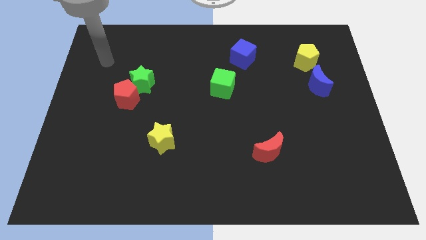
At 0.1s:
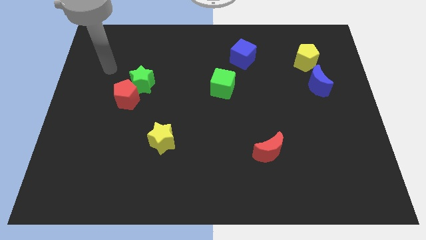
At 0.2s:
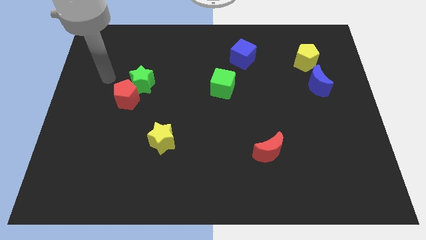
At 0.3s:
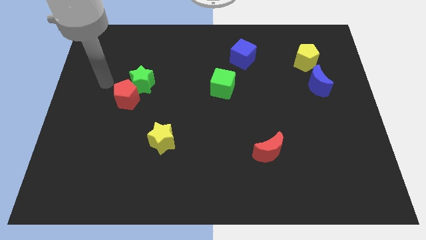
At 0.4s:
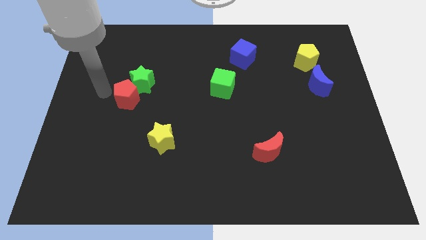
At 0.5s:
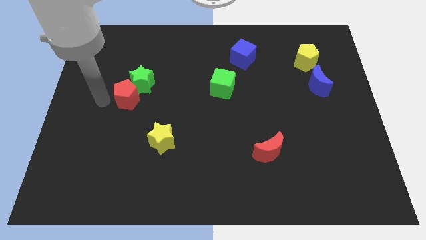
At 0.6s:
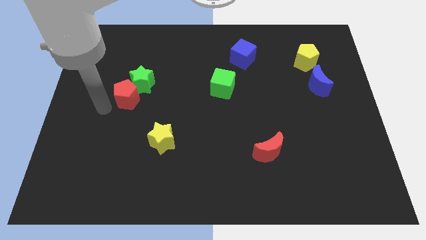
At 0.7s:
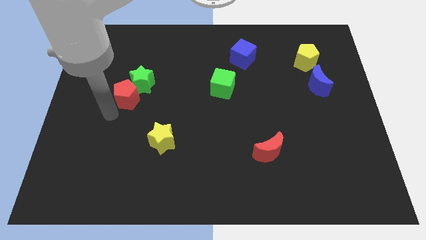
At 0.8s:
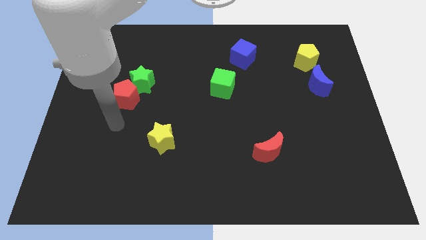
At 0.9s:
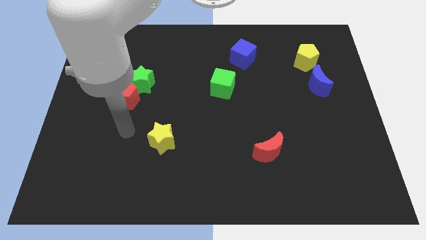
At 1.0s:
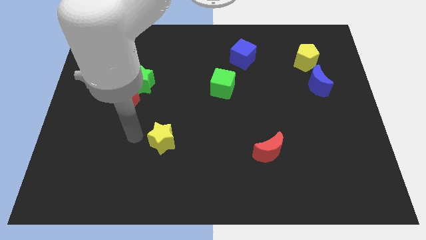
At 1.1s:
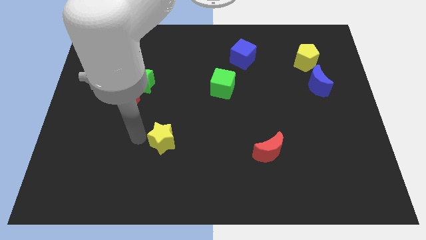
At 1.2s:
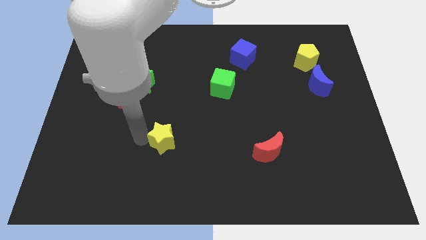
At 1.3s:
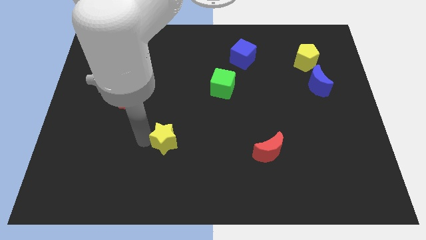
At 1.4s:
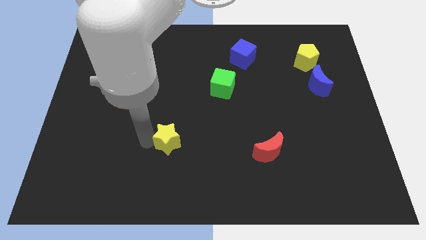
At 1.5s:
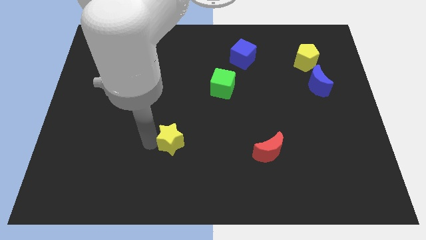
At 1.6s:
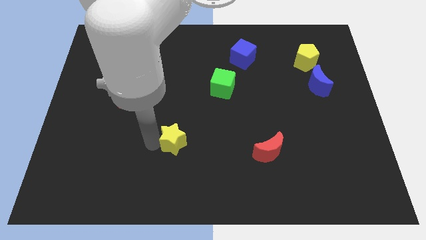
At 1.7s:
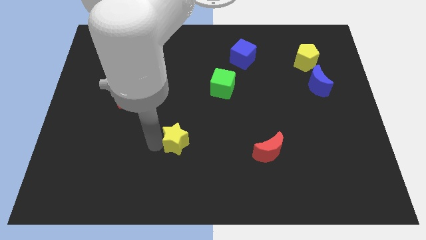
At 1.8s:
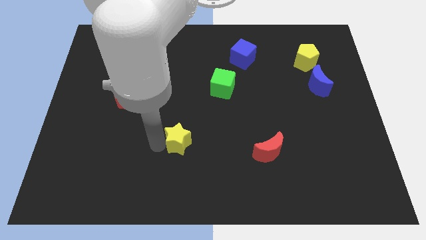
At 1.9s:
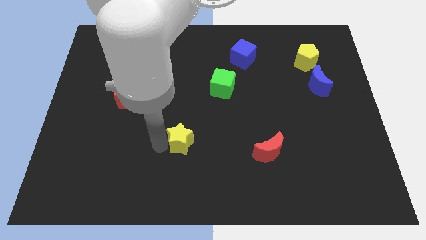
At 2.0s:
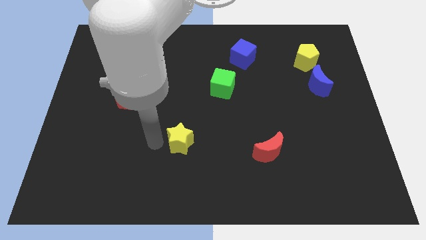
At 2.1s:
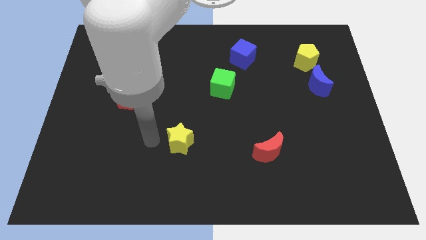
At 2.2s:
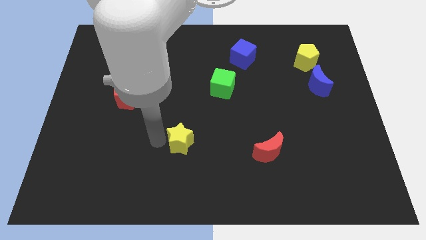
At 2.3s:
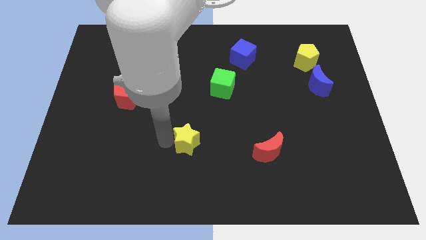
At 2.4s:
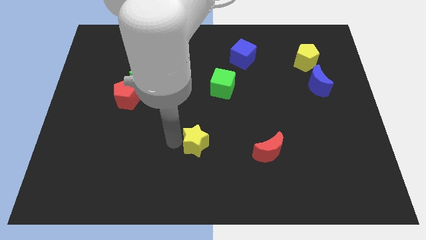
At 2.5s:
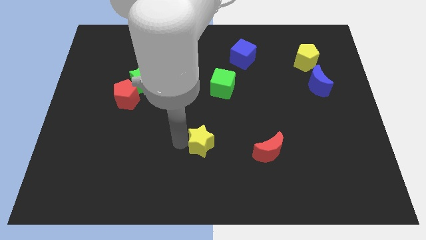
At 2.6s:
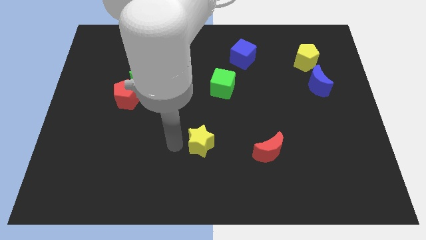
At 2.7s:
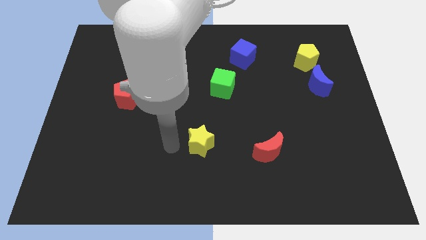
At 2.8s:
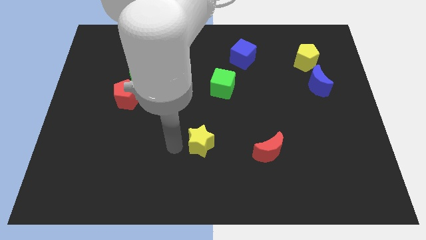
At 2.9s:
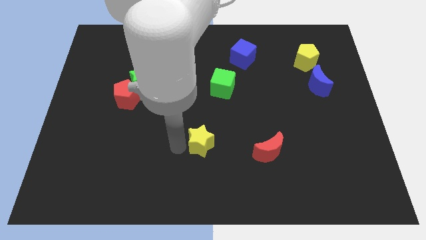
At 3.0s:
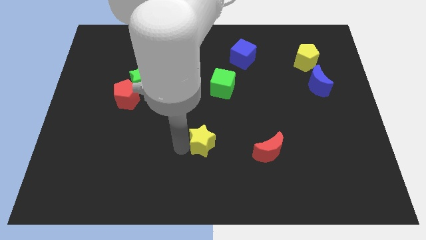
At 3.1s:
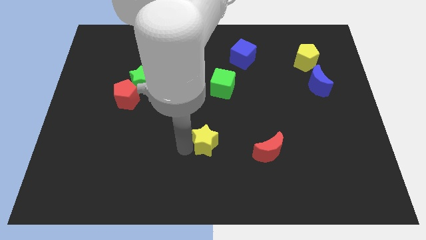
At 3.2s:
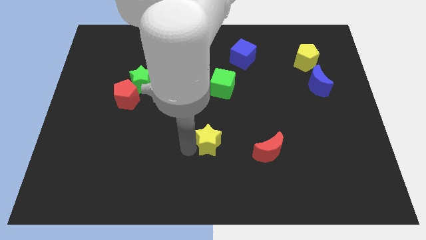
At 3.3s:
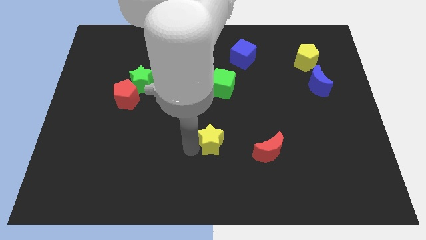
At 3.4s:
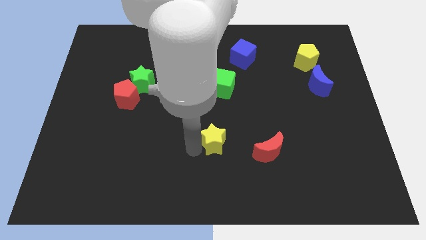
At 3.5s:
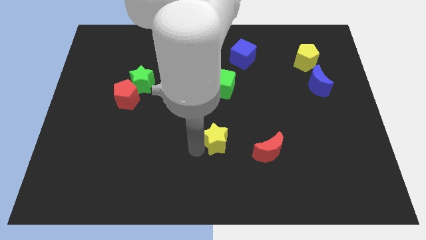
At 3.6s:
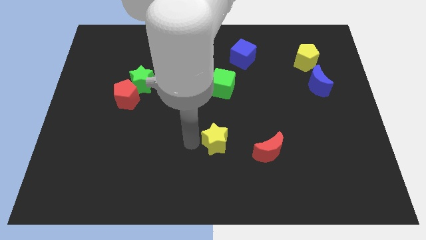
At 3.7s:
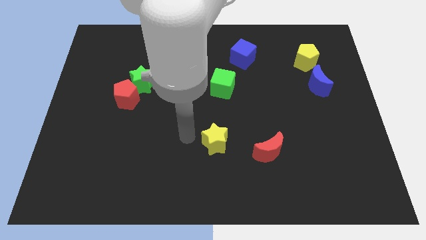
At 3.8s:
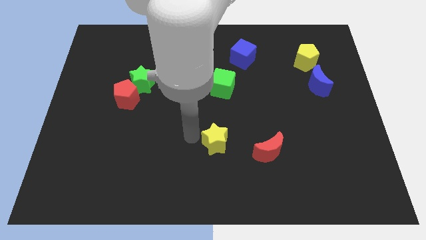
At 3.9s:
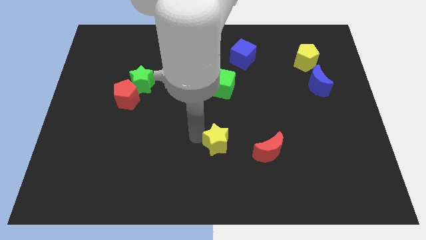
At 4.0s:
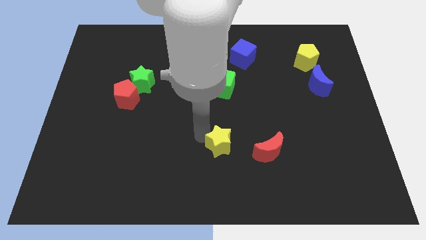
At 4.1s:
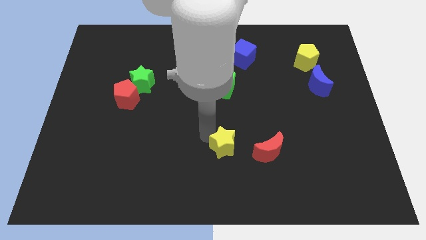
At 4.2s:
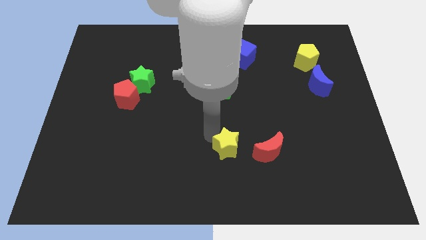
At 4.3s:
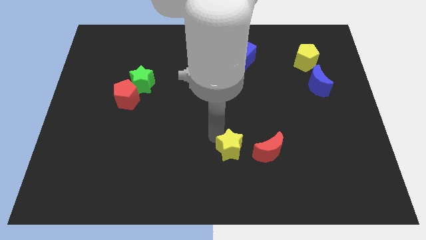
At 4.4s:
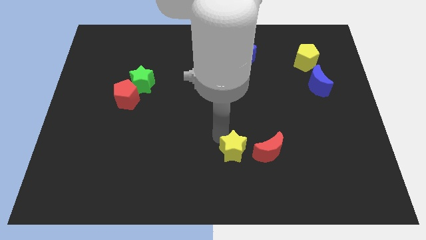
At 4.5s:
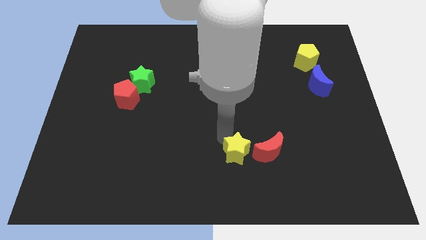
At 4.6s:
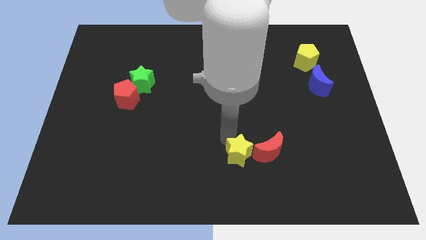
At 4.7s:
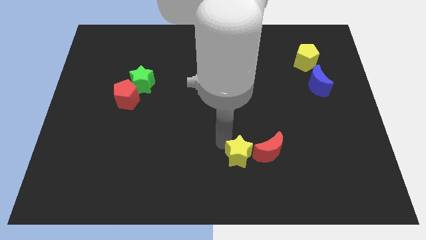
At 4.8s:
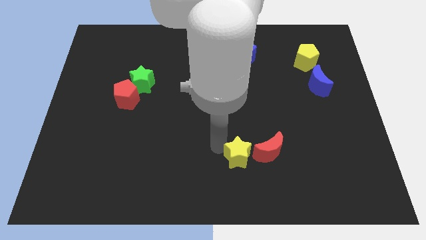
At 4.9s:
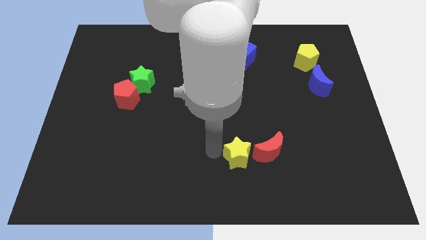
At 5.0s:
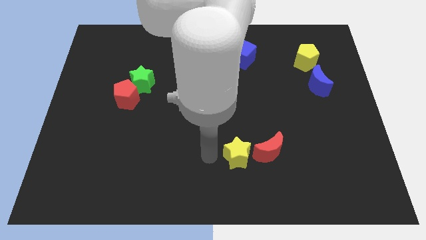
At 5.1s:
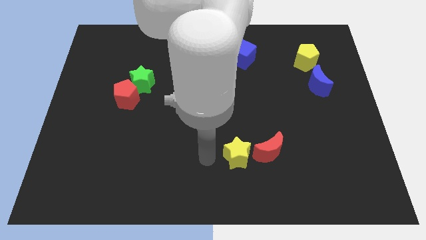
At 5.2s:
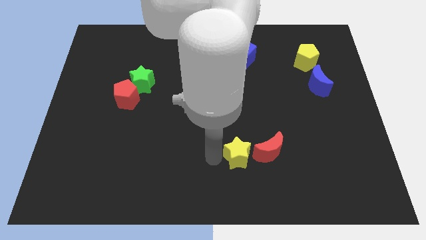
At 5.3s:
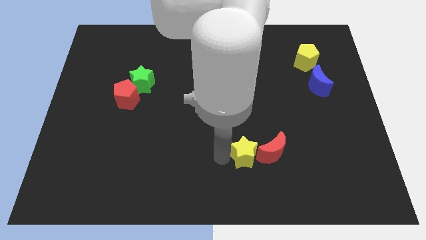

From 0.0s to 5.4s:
put the yellow star close to the red moon

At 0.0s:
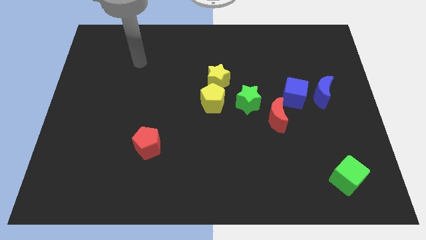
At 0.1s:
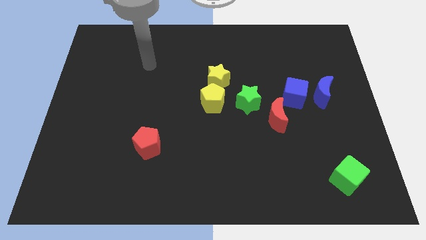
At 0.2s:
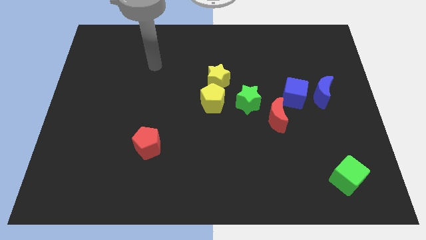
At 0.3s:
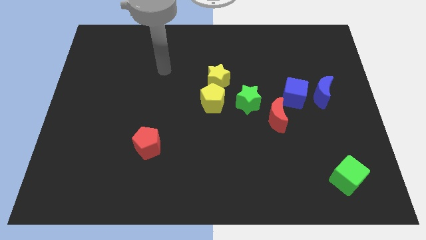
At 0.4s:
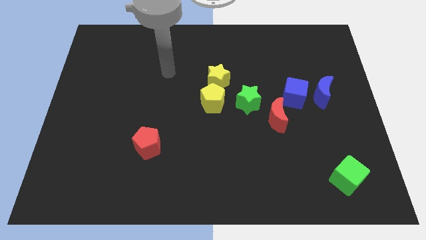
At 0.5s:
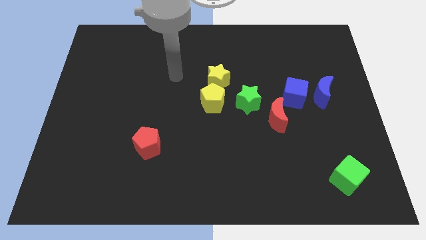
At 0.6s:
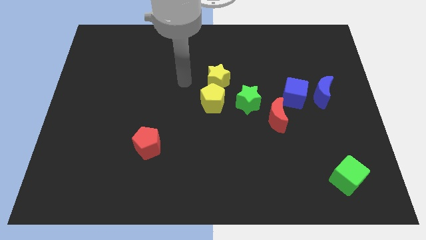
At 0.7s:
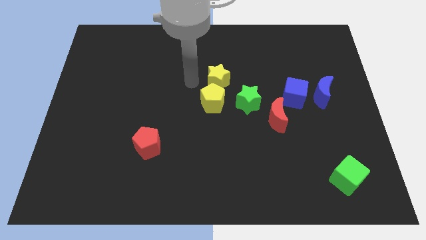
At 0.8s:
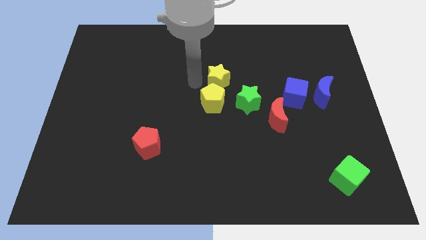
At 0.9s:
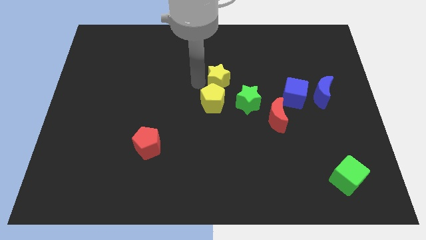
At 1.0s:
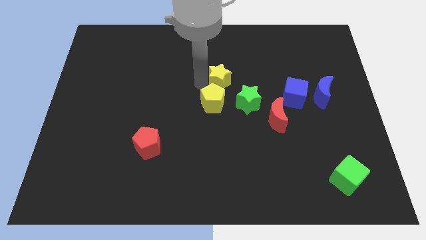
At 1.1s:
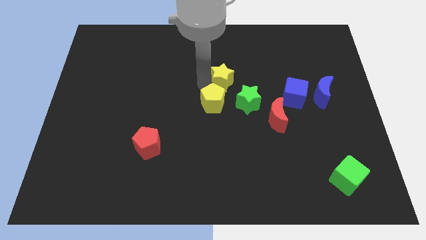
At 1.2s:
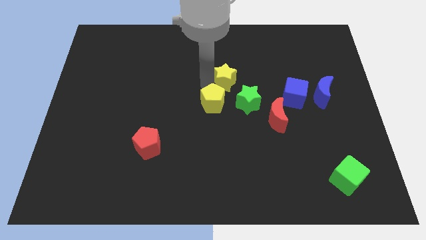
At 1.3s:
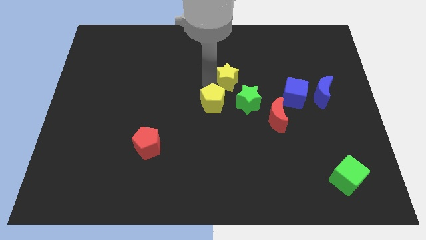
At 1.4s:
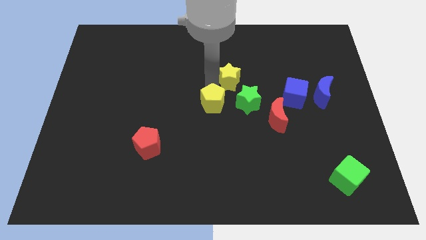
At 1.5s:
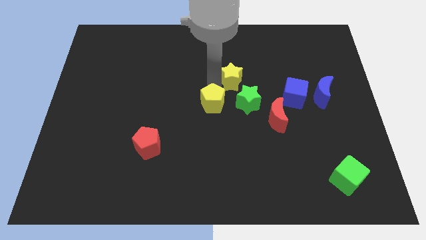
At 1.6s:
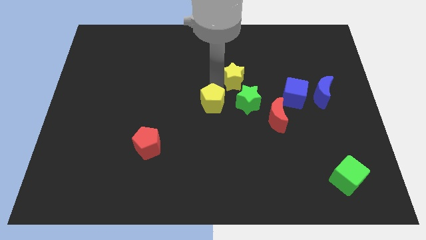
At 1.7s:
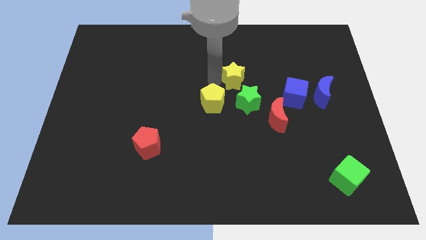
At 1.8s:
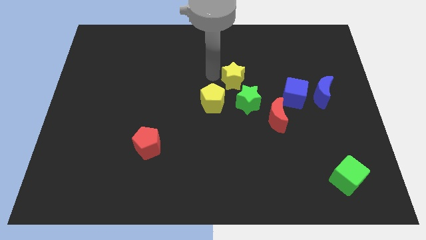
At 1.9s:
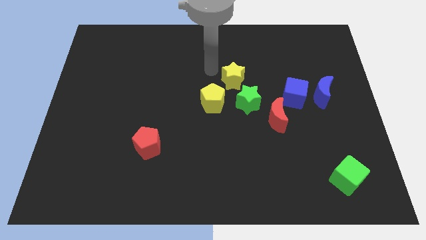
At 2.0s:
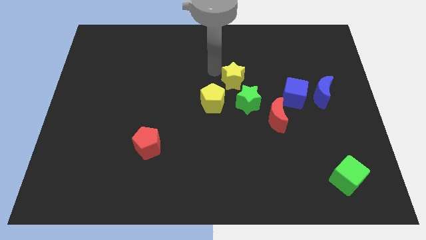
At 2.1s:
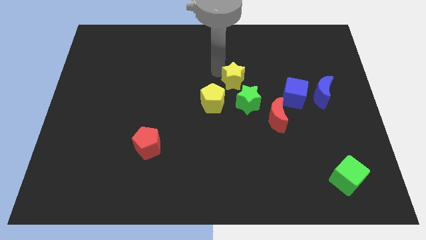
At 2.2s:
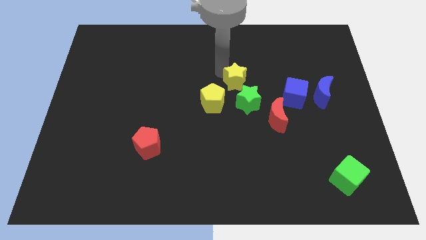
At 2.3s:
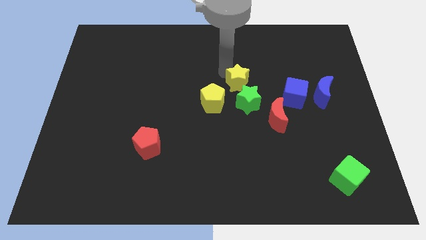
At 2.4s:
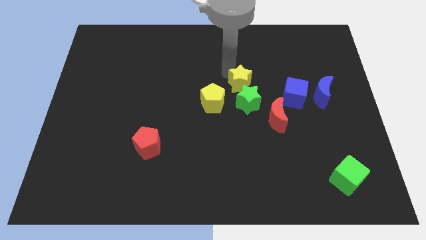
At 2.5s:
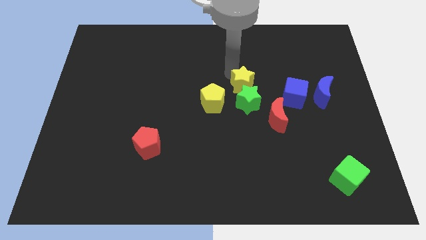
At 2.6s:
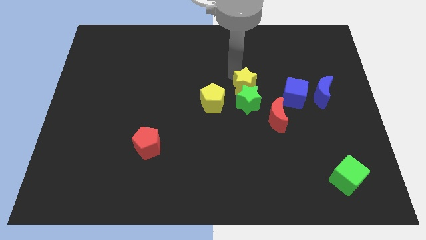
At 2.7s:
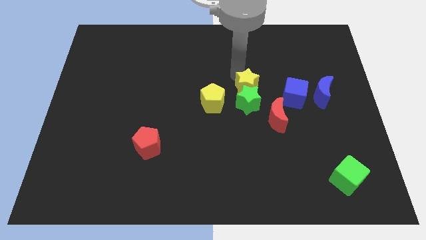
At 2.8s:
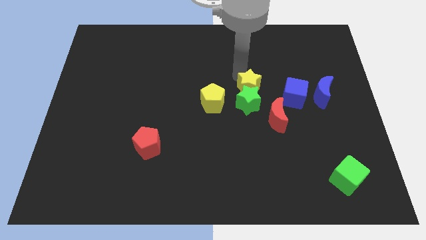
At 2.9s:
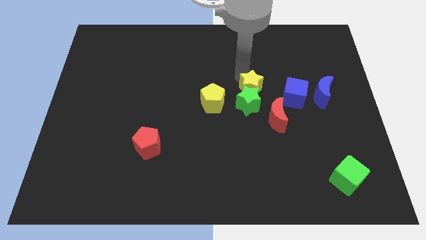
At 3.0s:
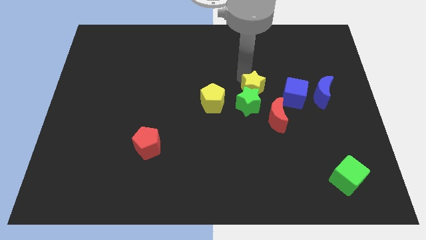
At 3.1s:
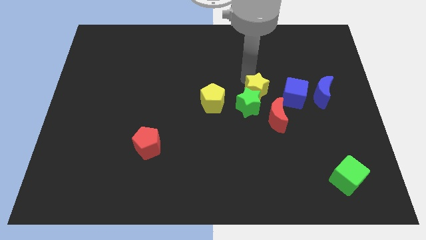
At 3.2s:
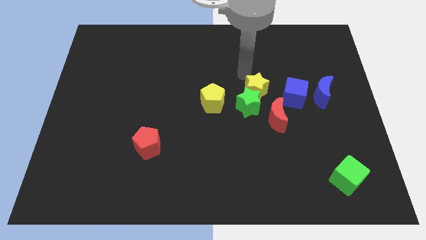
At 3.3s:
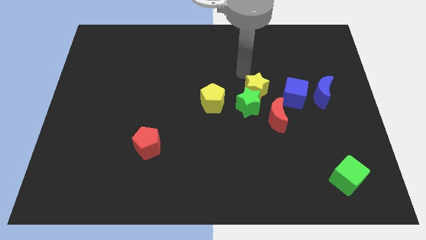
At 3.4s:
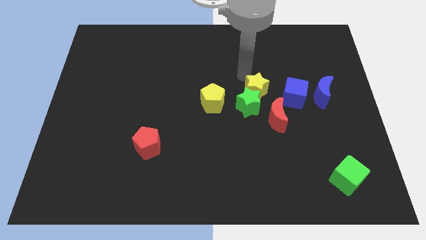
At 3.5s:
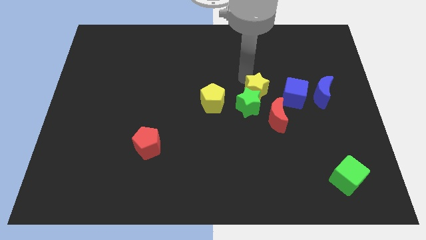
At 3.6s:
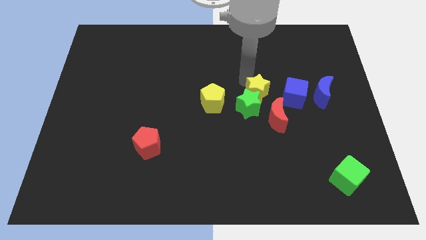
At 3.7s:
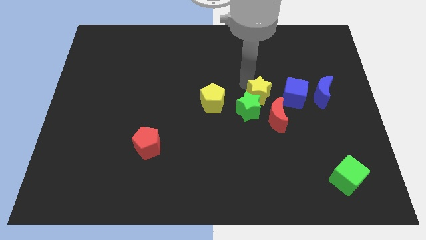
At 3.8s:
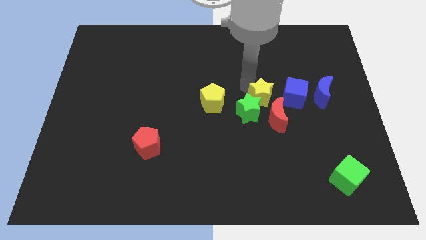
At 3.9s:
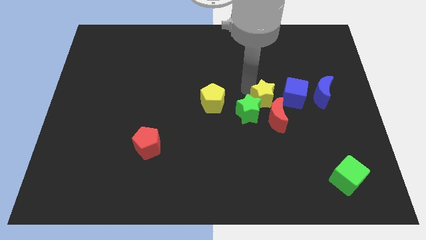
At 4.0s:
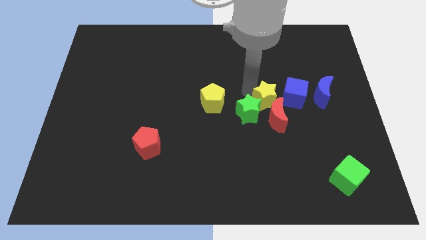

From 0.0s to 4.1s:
push the yellow star next to the red moon
